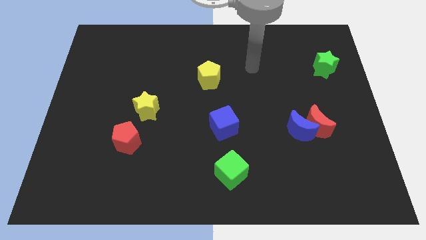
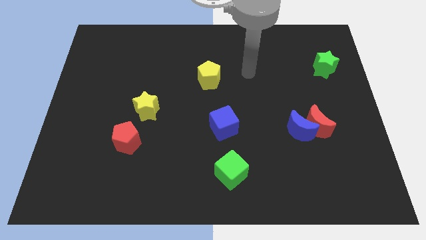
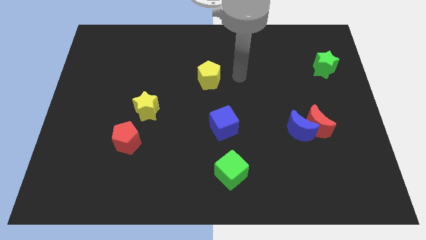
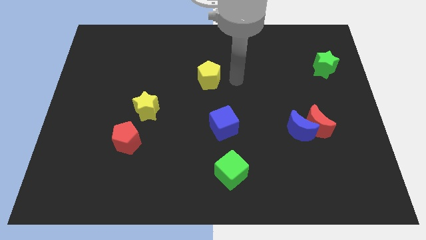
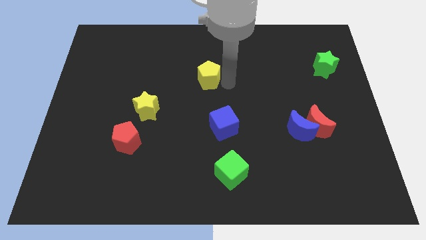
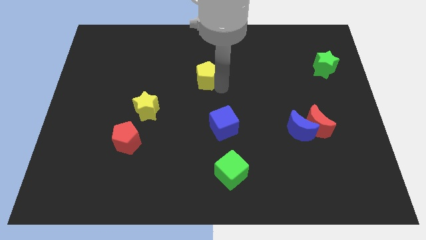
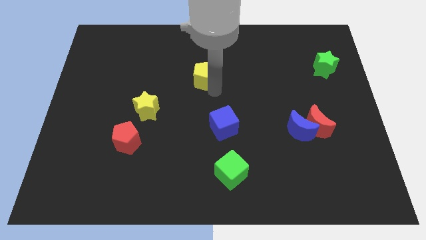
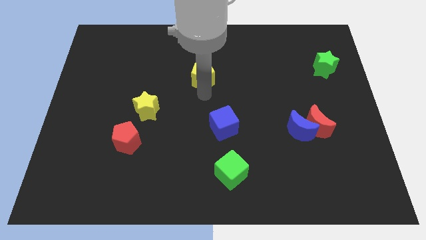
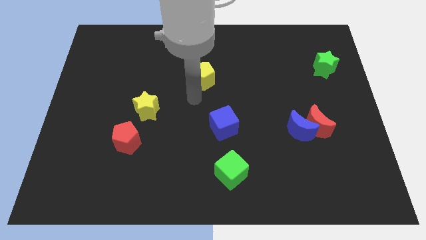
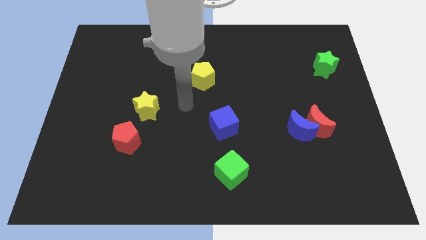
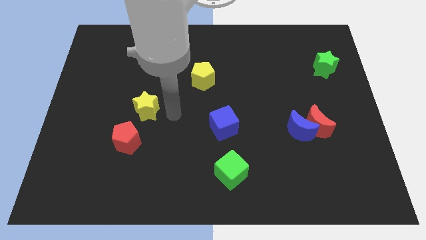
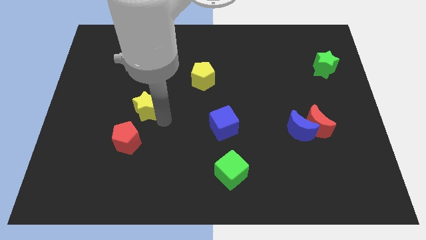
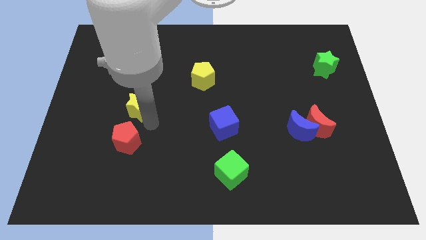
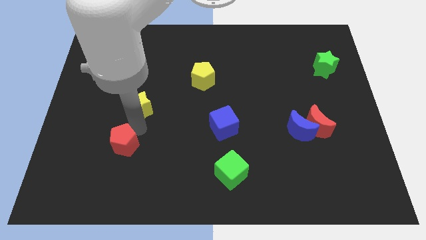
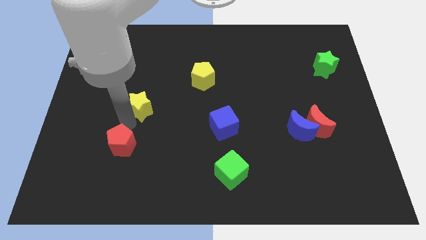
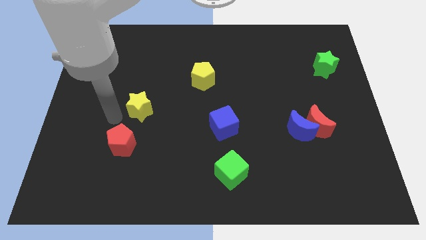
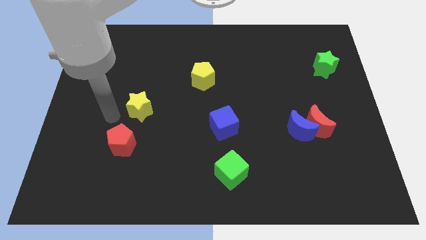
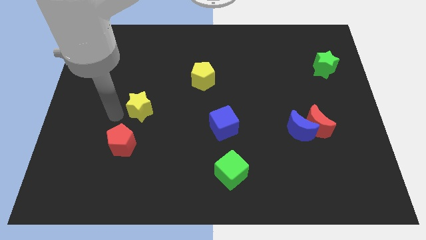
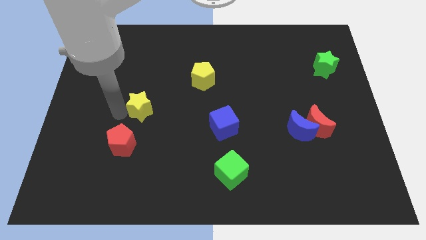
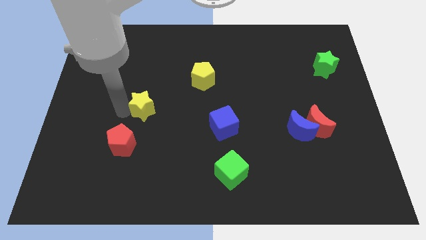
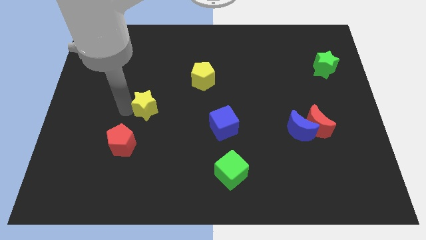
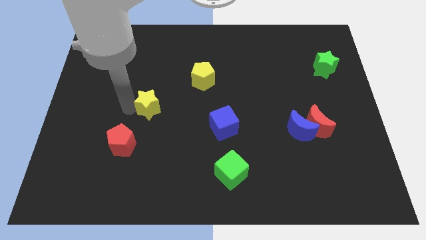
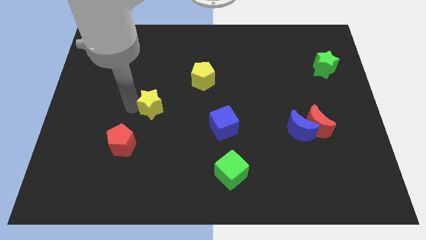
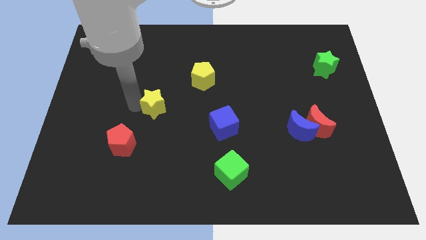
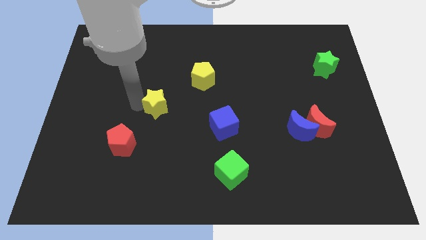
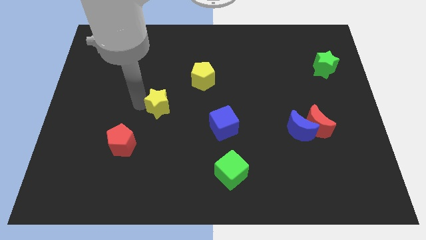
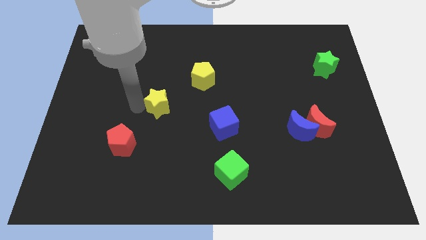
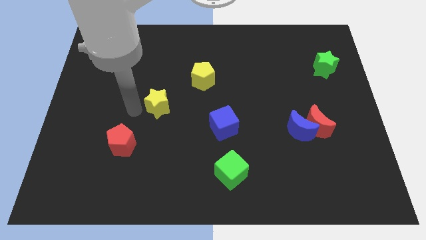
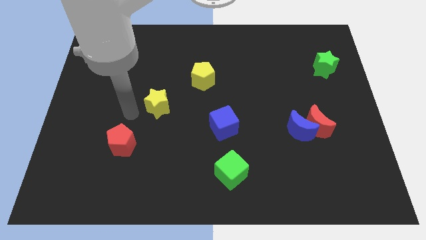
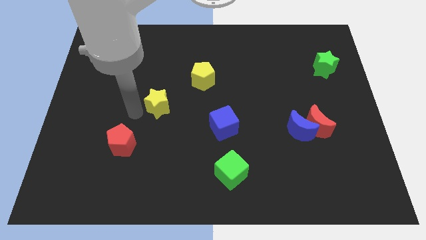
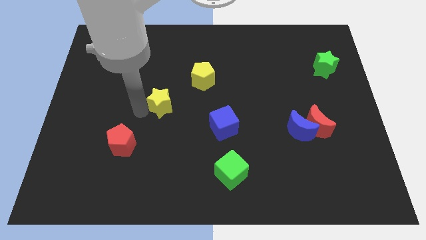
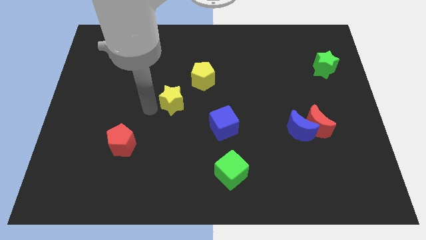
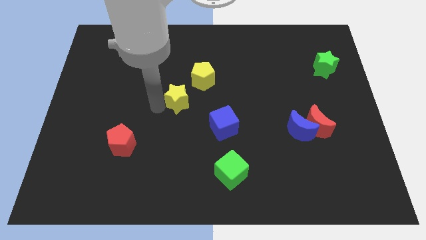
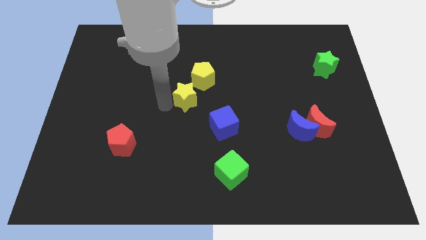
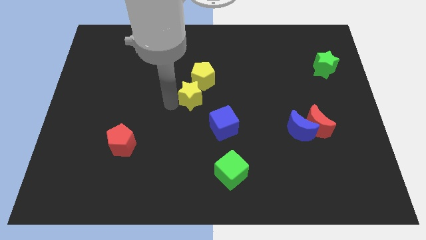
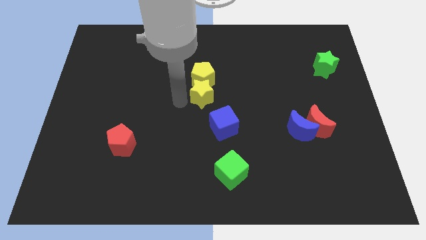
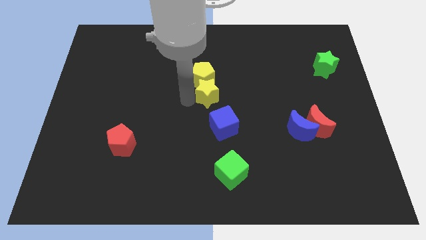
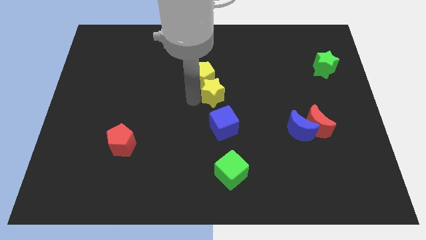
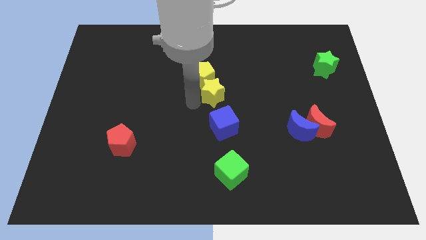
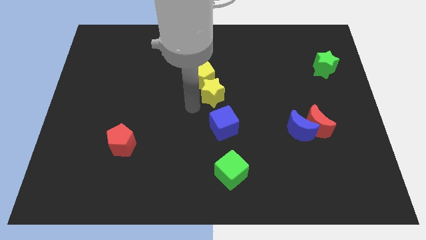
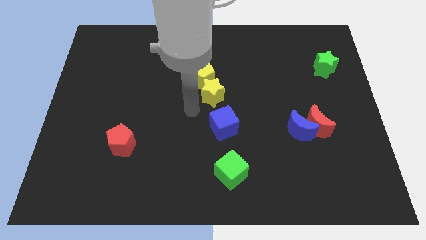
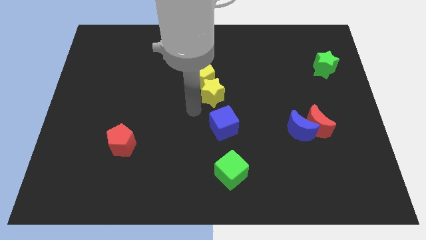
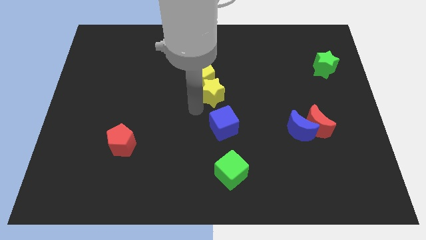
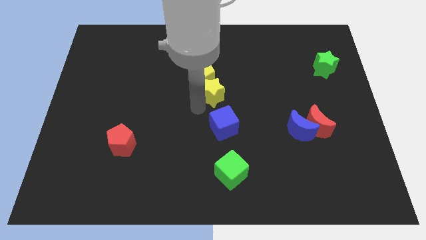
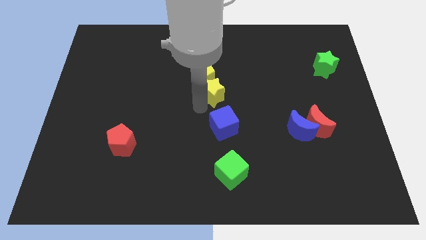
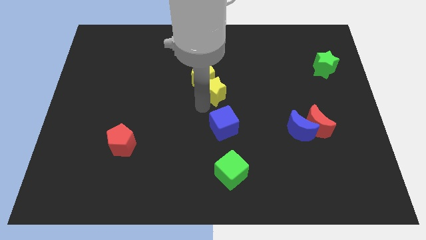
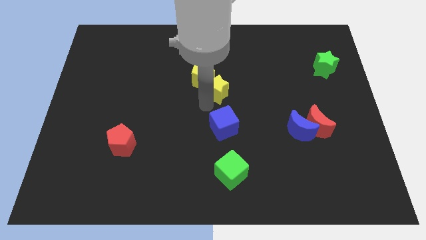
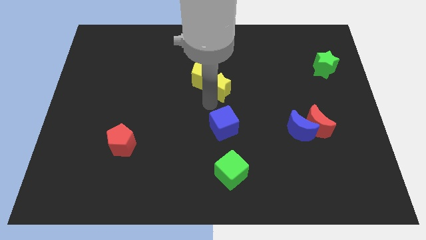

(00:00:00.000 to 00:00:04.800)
push the yellow star to the right of the yellow pentagon

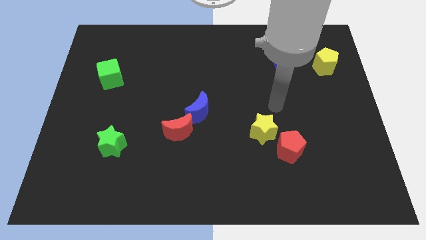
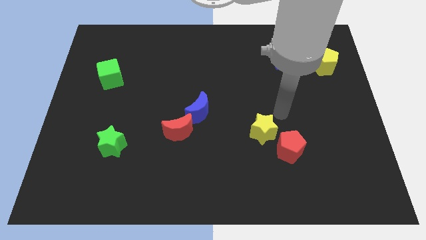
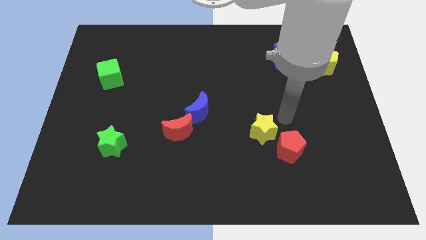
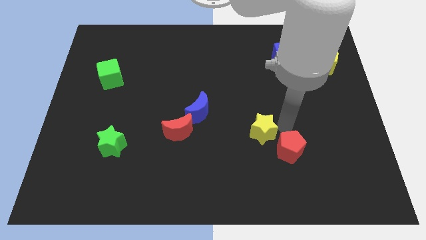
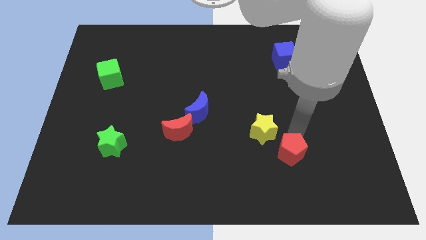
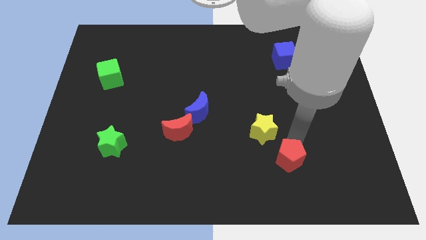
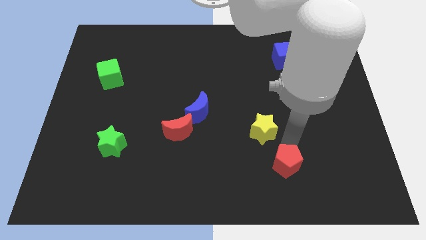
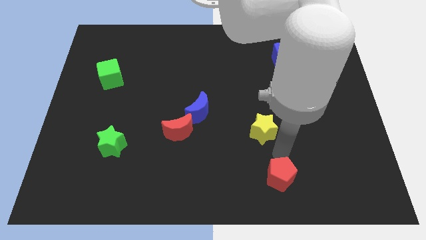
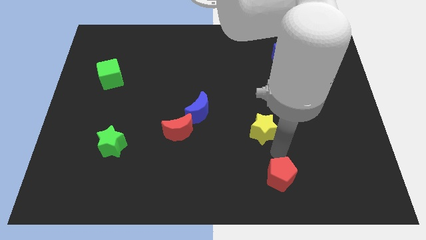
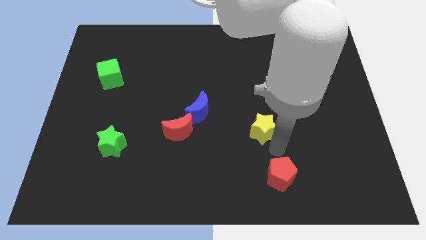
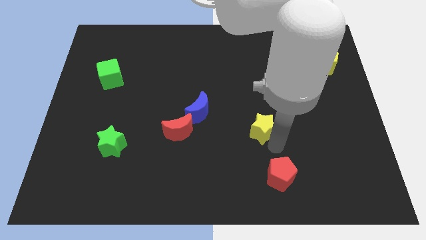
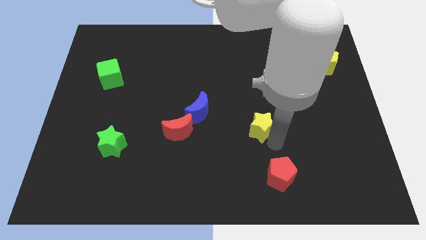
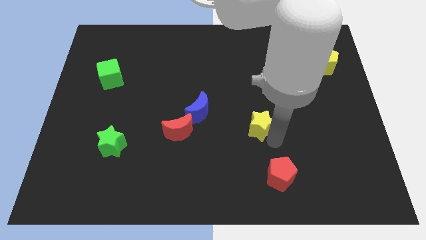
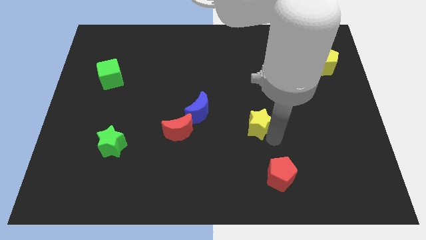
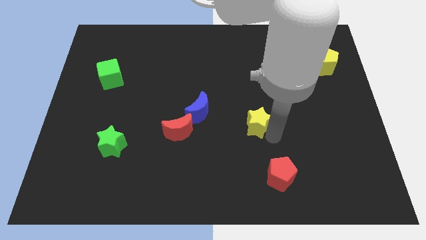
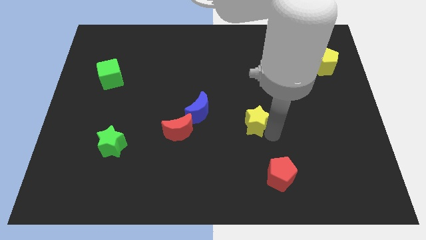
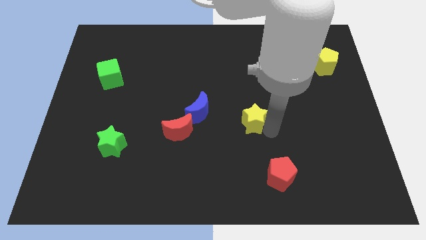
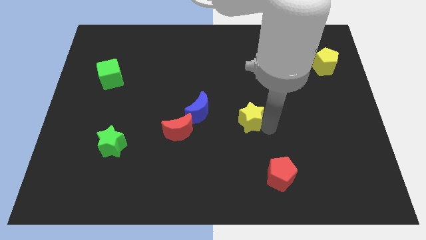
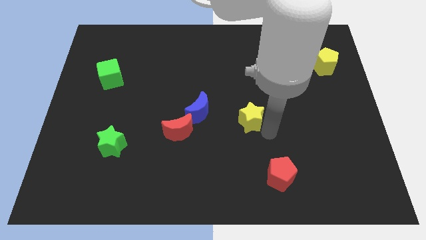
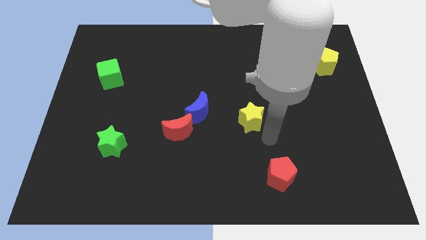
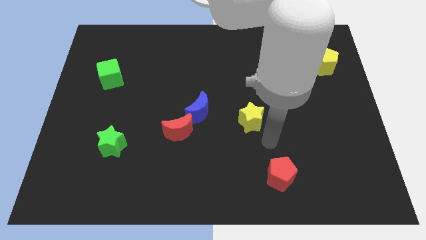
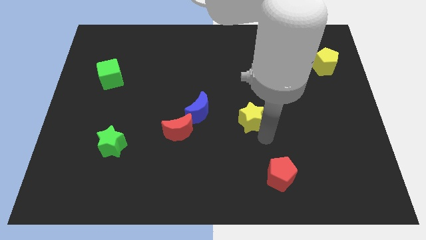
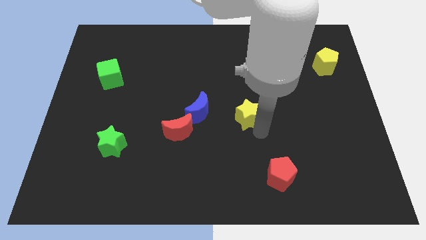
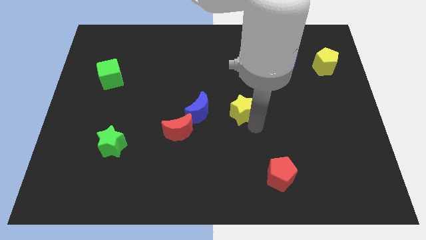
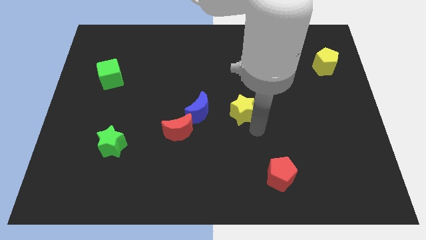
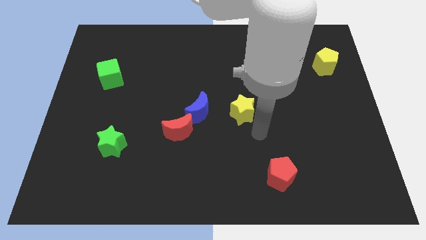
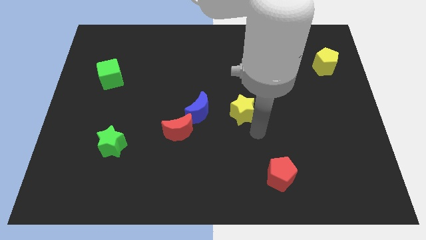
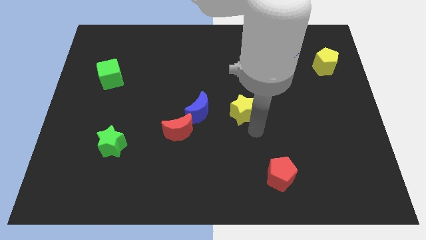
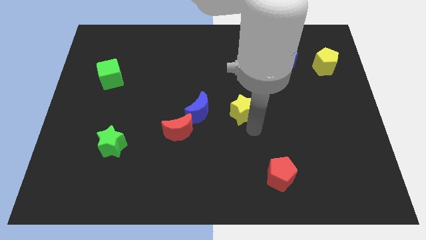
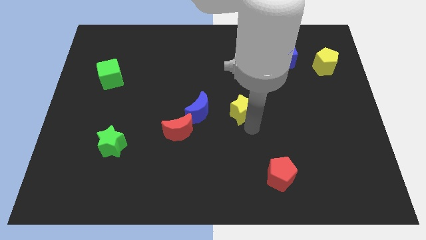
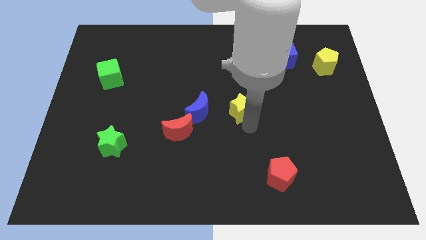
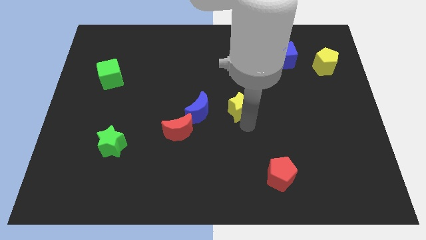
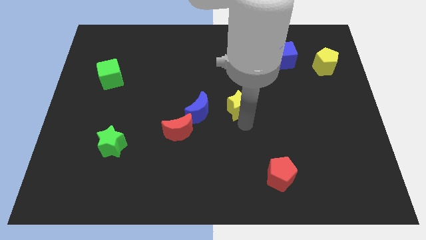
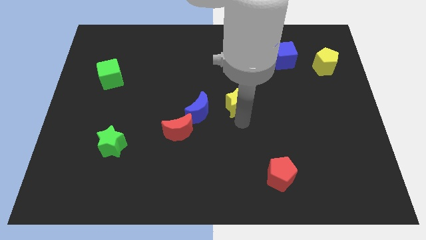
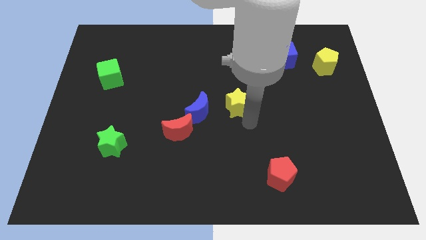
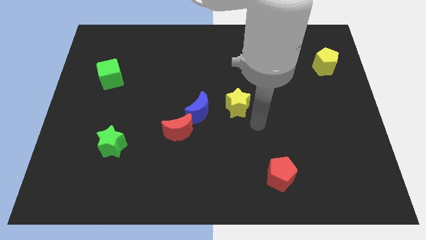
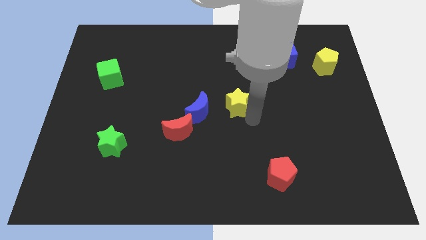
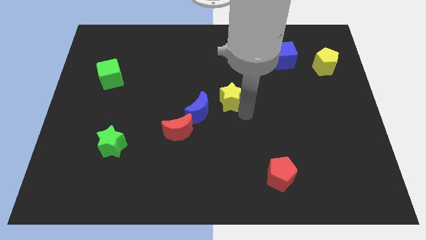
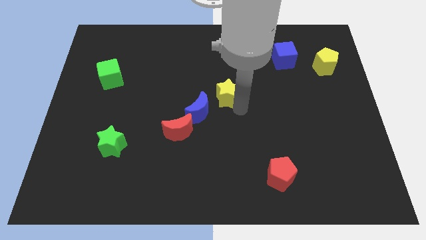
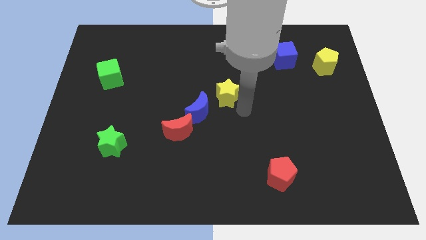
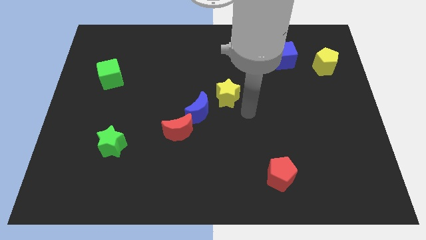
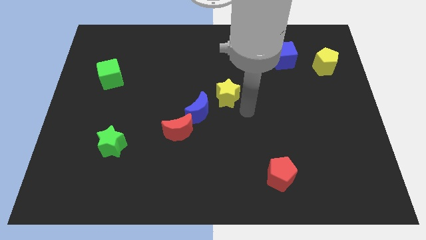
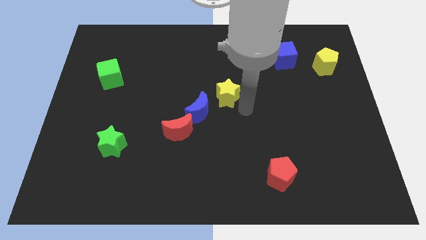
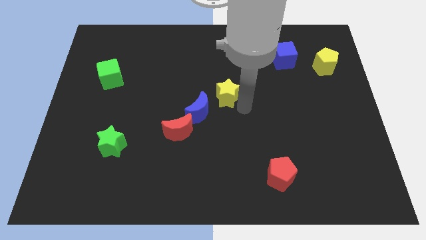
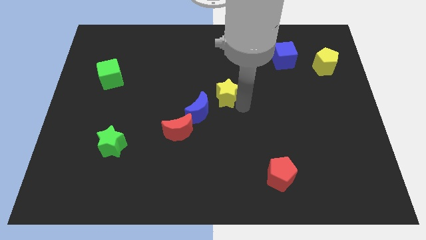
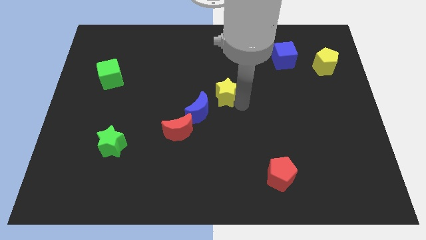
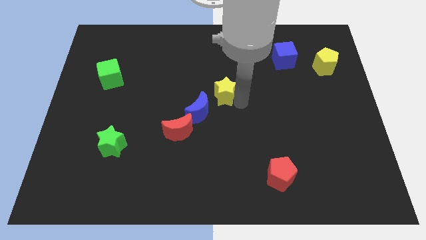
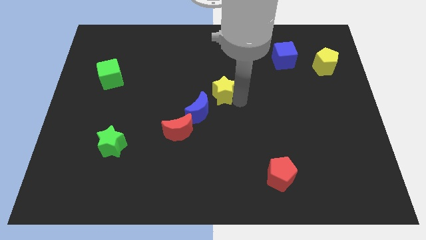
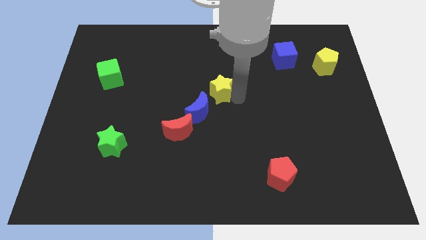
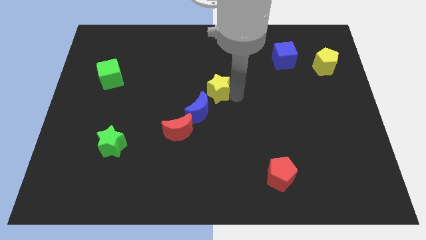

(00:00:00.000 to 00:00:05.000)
put the yellow star to the top side of the blue moon
